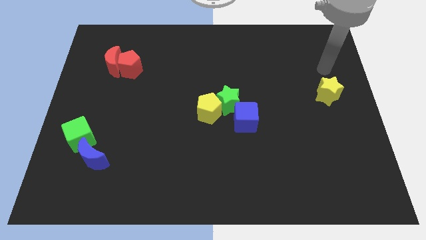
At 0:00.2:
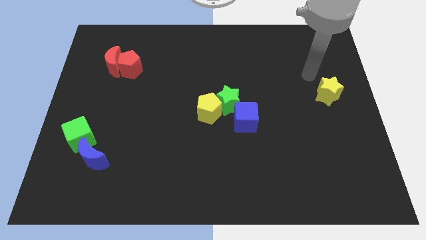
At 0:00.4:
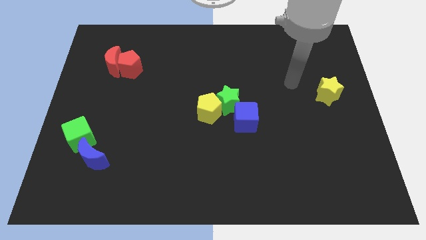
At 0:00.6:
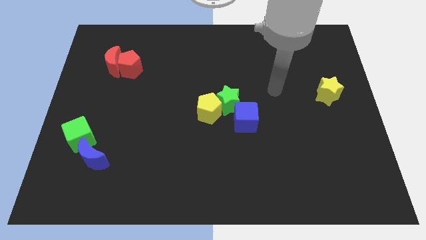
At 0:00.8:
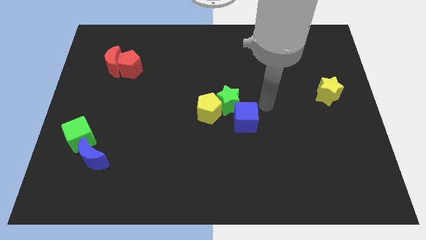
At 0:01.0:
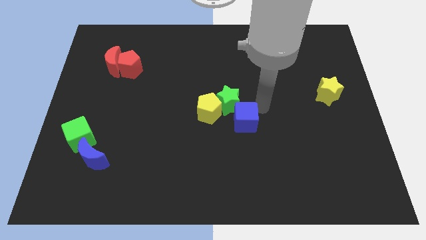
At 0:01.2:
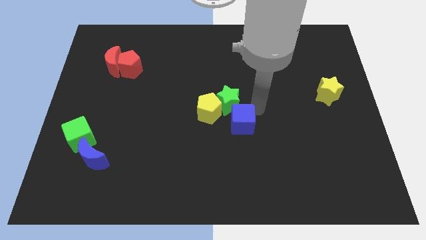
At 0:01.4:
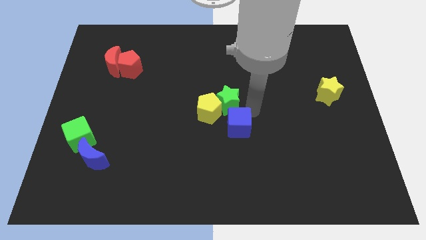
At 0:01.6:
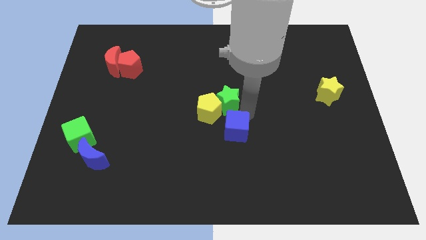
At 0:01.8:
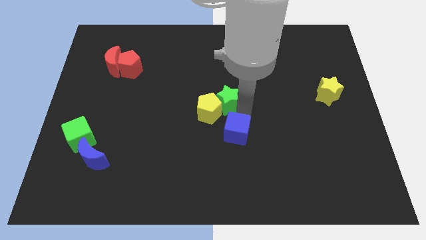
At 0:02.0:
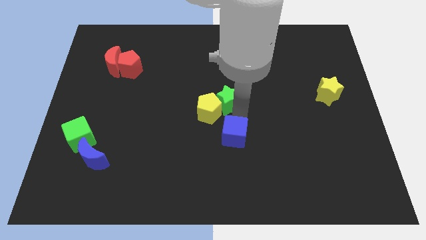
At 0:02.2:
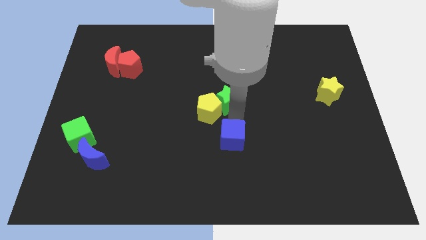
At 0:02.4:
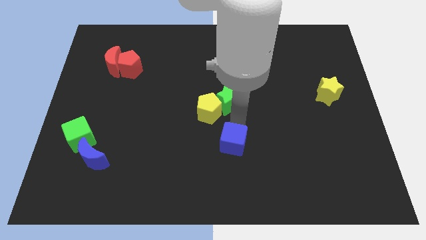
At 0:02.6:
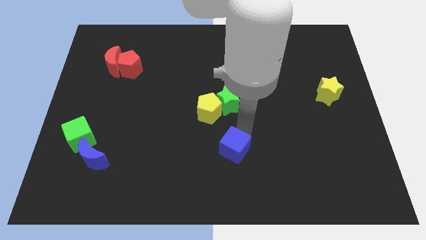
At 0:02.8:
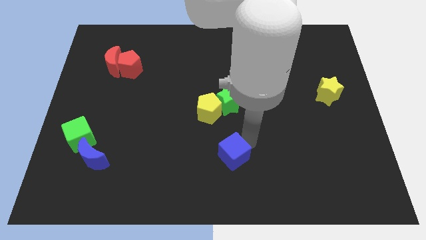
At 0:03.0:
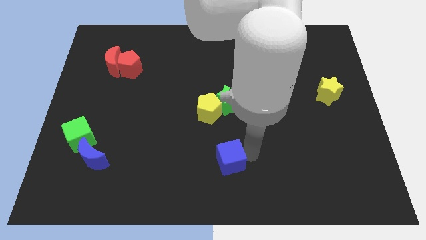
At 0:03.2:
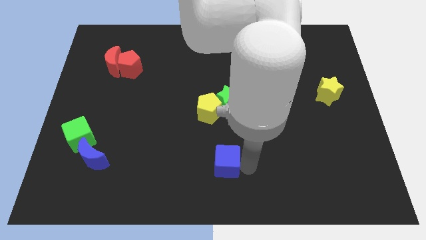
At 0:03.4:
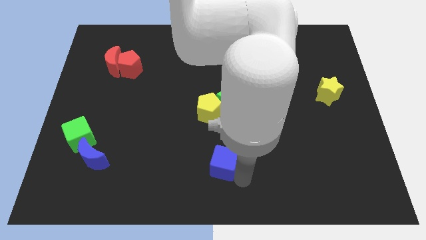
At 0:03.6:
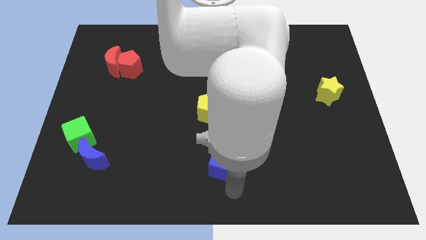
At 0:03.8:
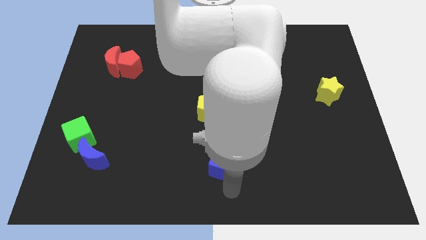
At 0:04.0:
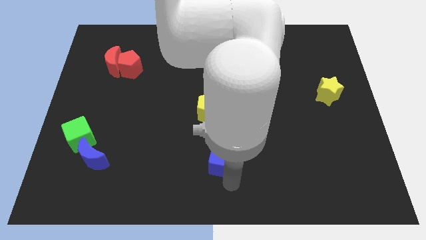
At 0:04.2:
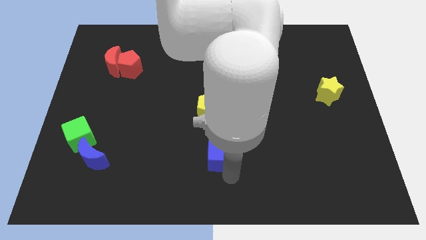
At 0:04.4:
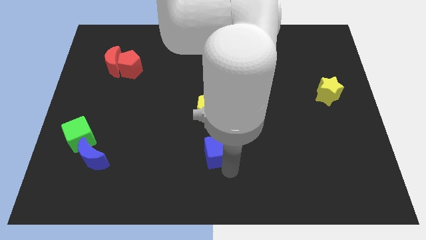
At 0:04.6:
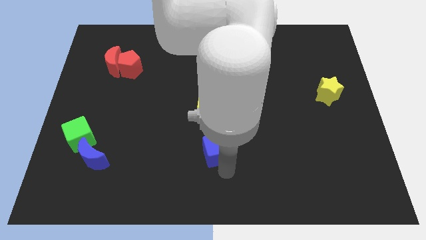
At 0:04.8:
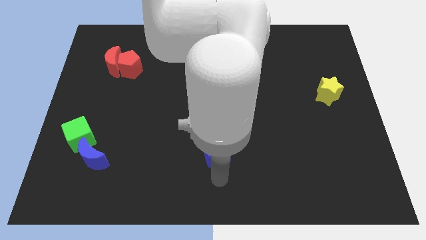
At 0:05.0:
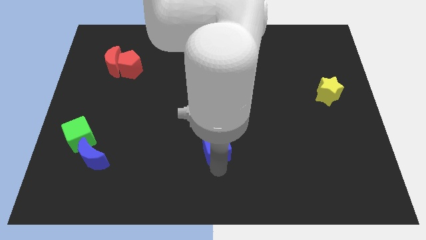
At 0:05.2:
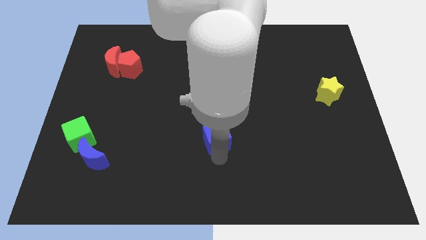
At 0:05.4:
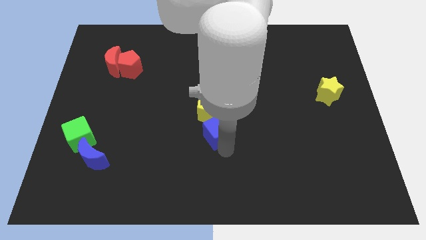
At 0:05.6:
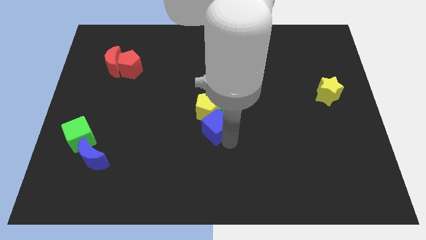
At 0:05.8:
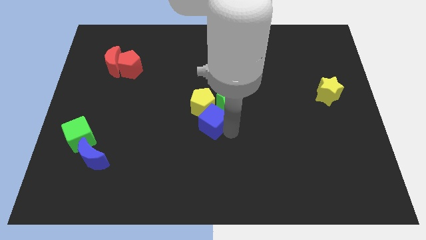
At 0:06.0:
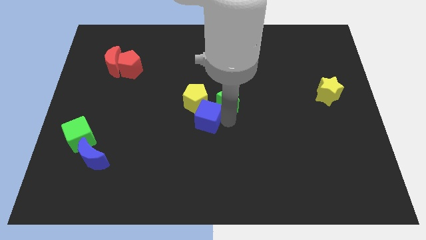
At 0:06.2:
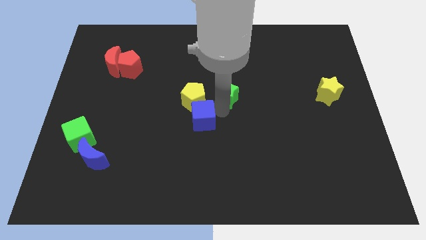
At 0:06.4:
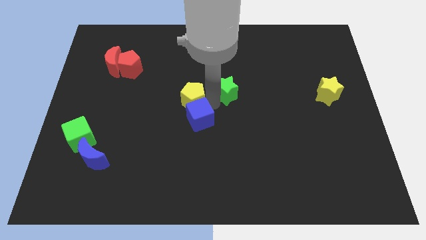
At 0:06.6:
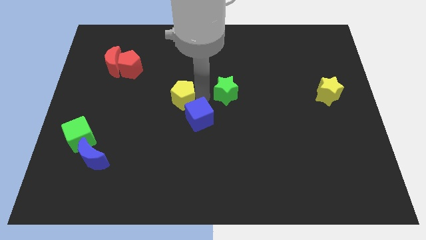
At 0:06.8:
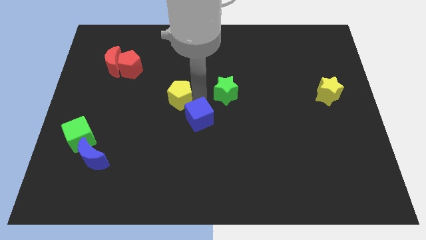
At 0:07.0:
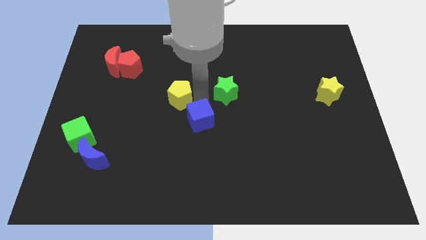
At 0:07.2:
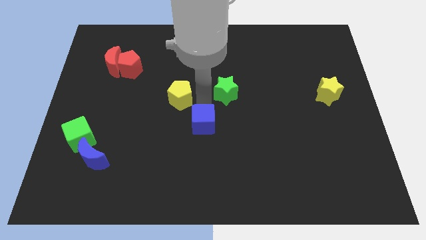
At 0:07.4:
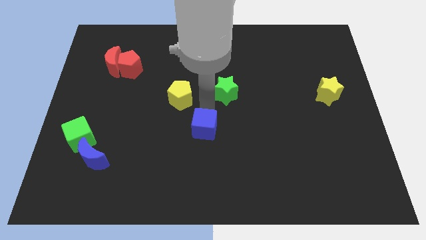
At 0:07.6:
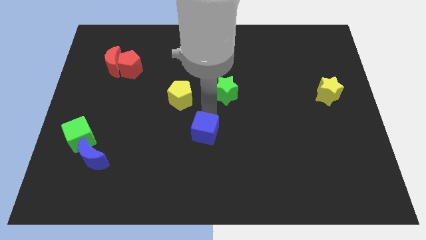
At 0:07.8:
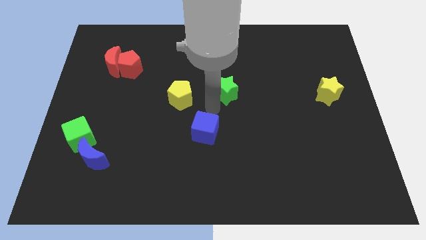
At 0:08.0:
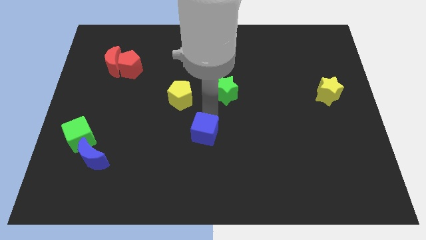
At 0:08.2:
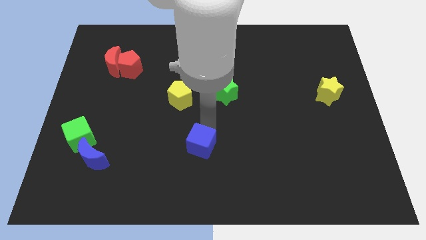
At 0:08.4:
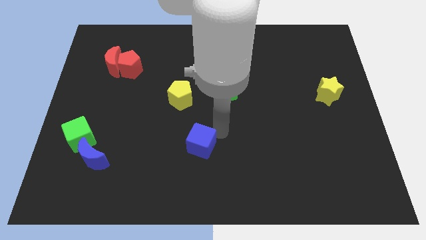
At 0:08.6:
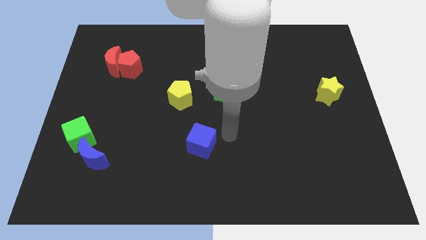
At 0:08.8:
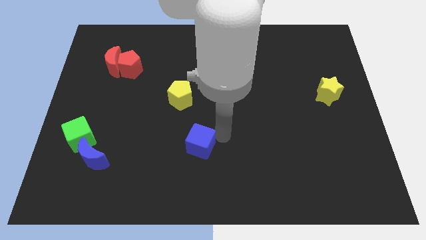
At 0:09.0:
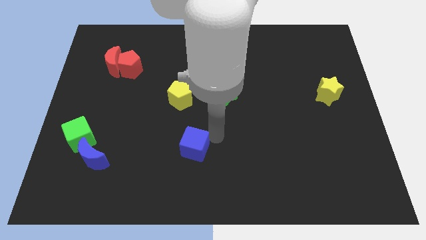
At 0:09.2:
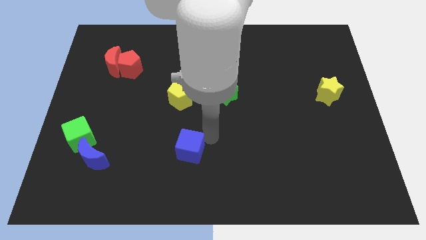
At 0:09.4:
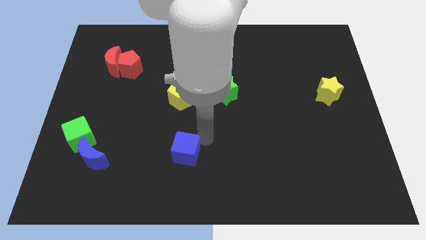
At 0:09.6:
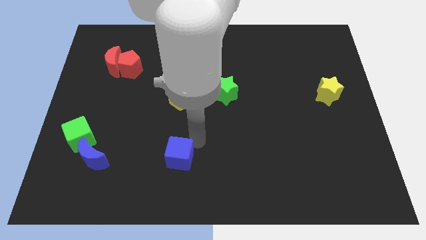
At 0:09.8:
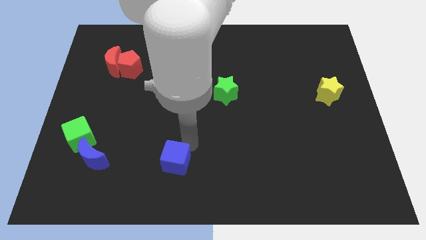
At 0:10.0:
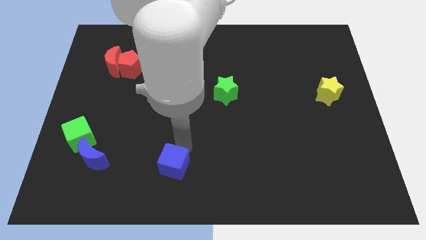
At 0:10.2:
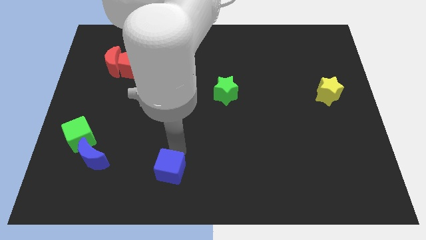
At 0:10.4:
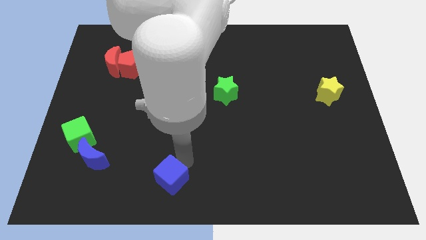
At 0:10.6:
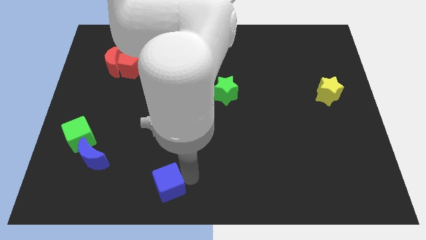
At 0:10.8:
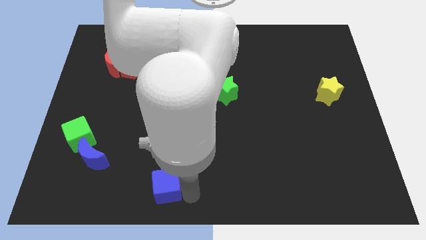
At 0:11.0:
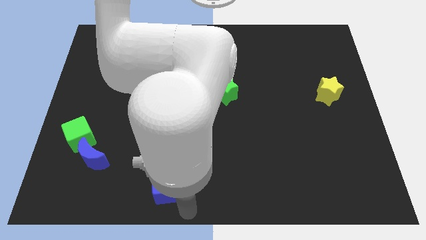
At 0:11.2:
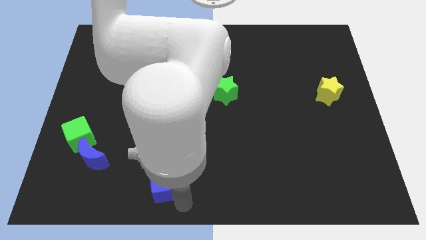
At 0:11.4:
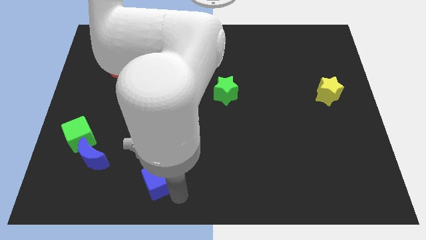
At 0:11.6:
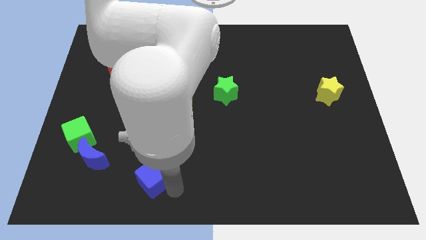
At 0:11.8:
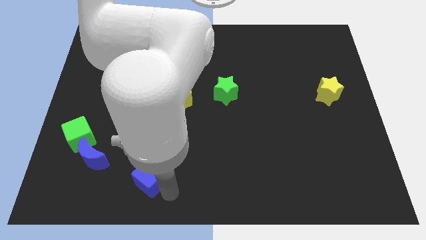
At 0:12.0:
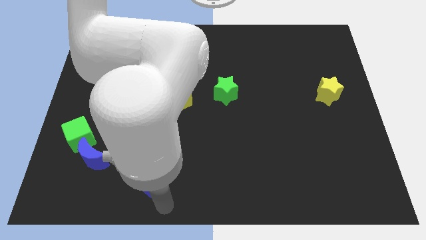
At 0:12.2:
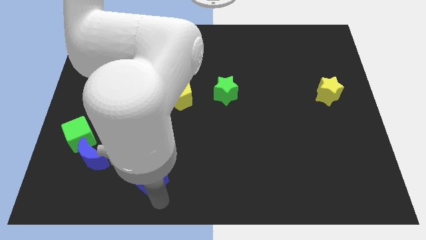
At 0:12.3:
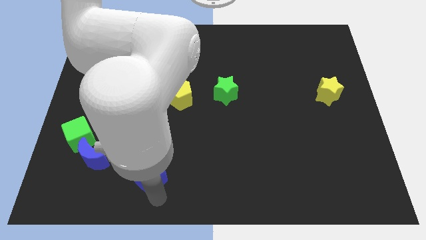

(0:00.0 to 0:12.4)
put the blue cube right of the blue moon
